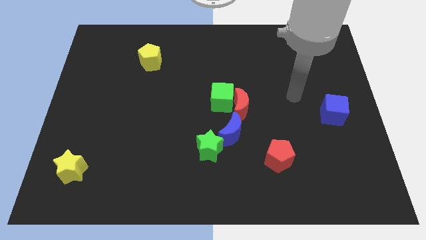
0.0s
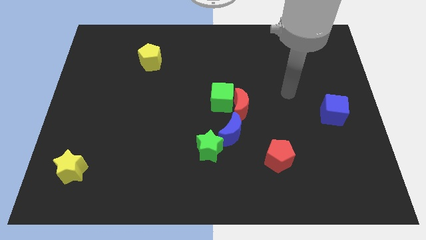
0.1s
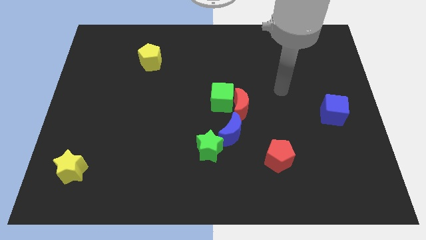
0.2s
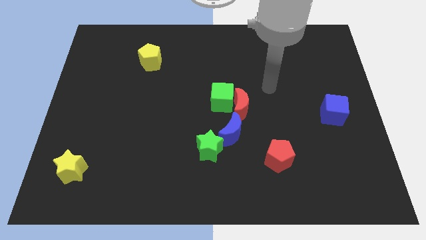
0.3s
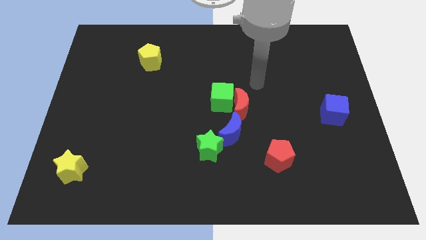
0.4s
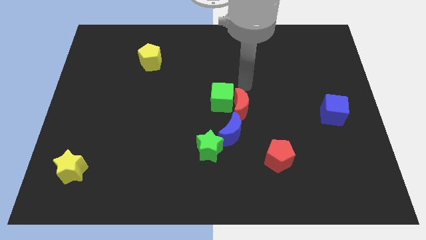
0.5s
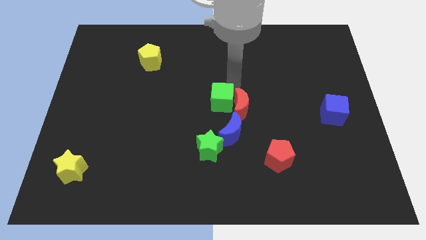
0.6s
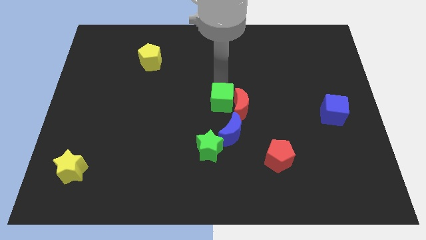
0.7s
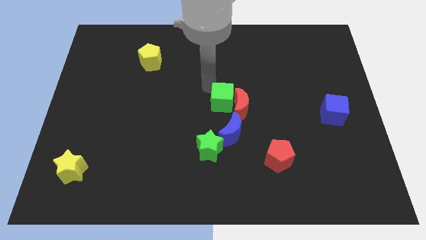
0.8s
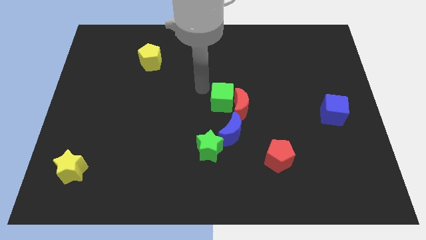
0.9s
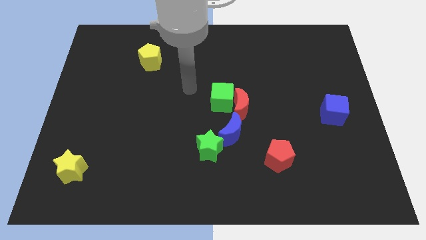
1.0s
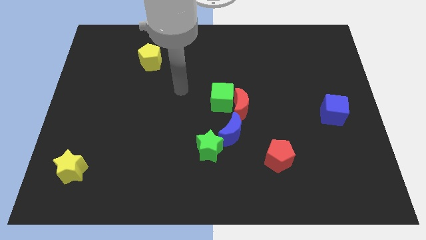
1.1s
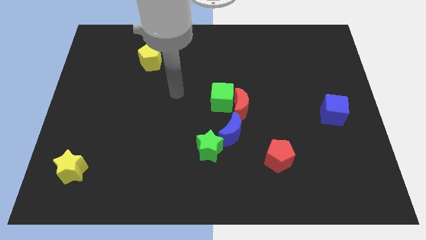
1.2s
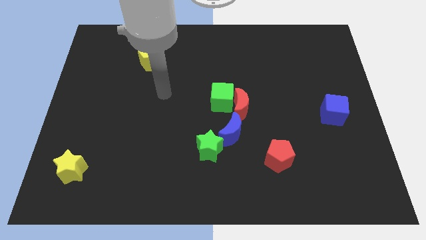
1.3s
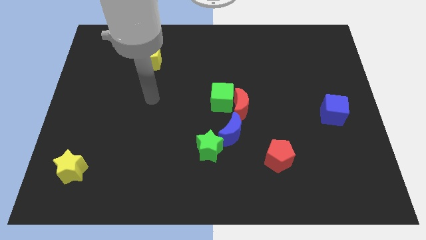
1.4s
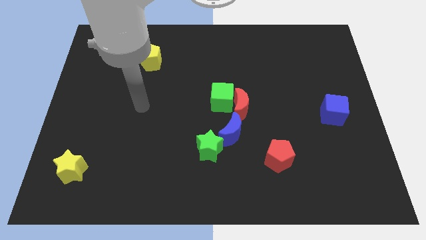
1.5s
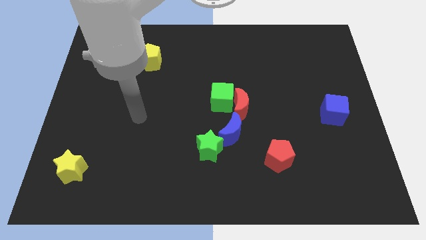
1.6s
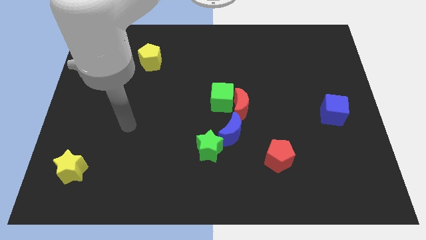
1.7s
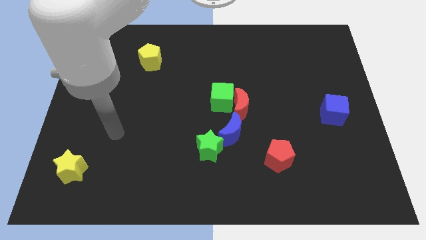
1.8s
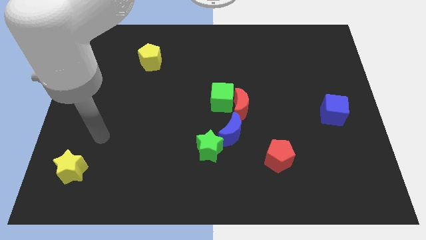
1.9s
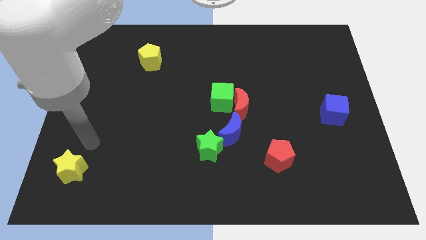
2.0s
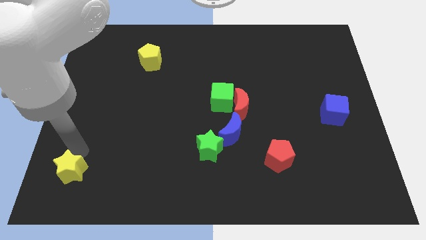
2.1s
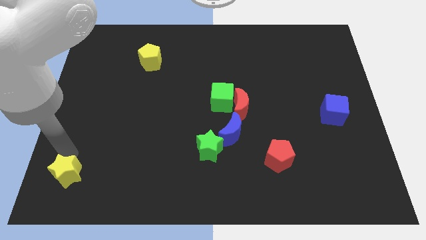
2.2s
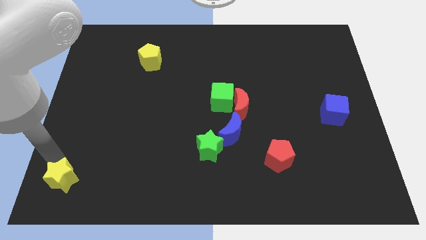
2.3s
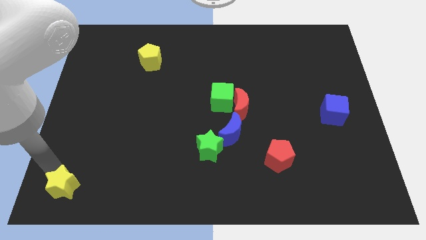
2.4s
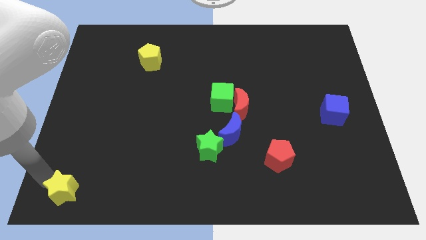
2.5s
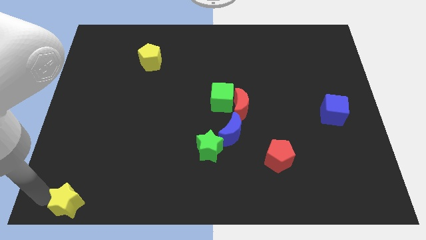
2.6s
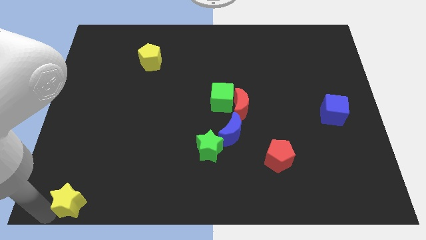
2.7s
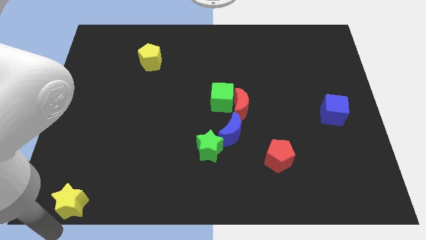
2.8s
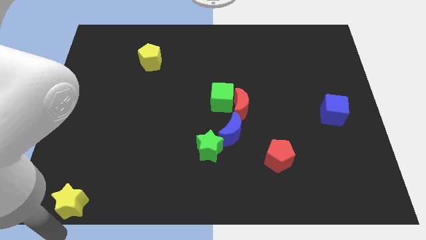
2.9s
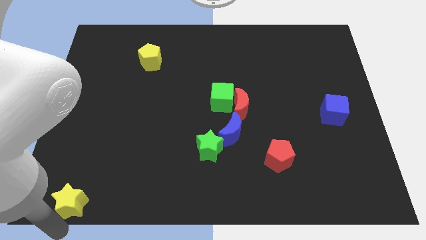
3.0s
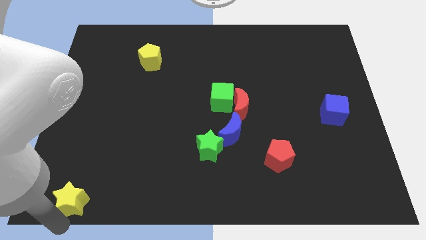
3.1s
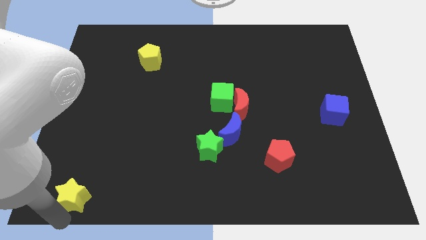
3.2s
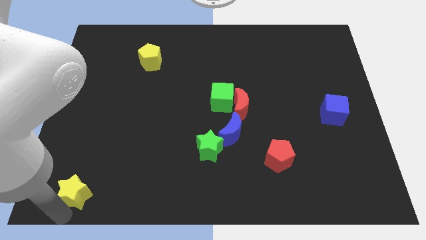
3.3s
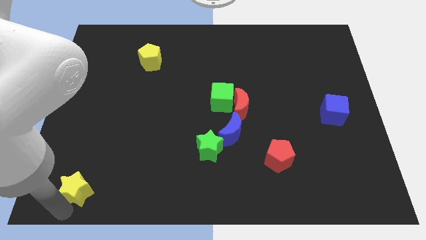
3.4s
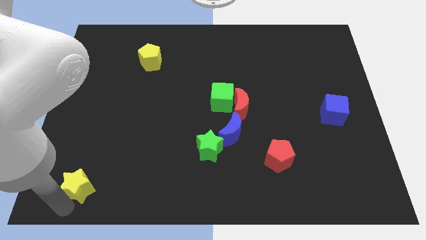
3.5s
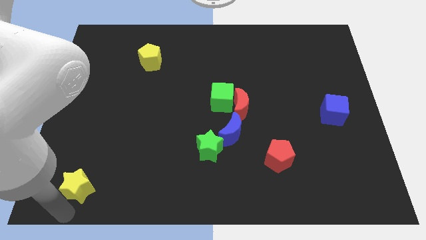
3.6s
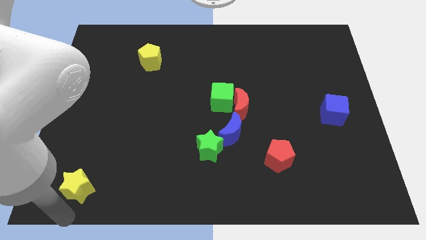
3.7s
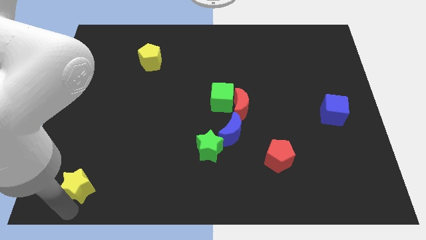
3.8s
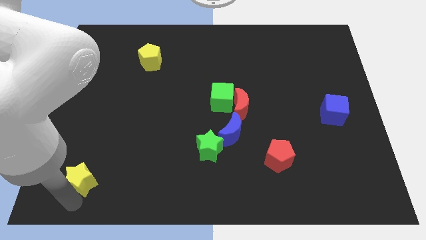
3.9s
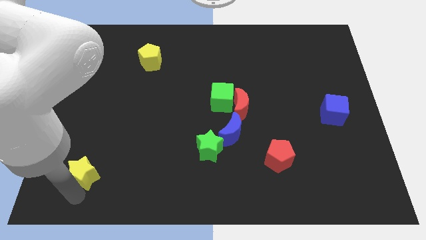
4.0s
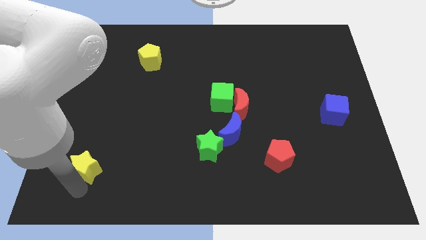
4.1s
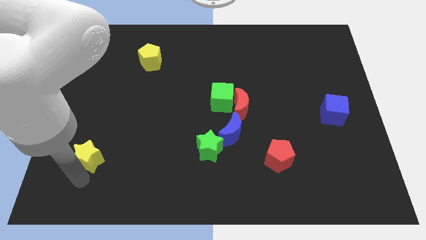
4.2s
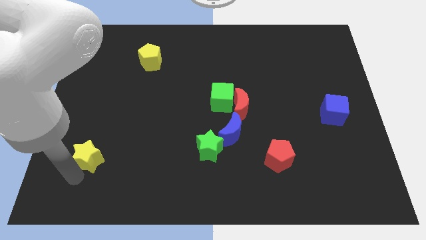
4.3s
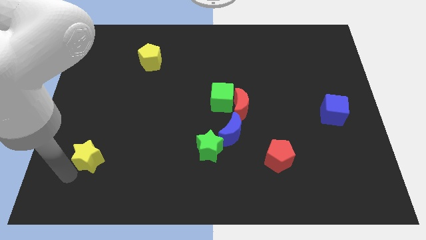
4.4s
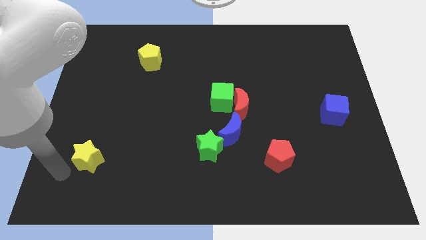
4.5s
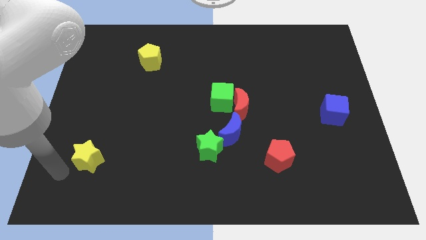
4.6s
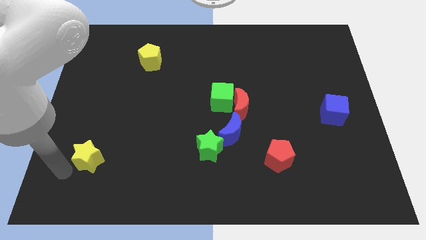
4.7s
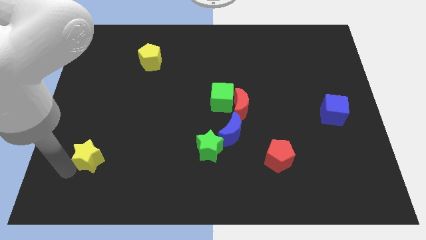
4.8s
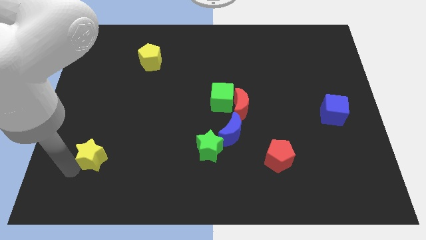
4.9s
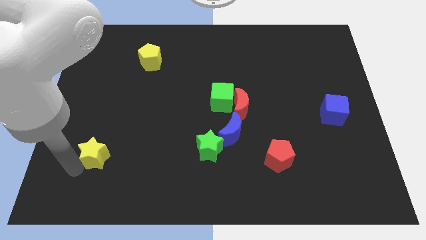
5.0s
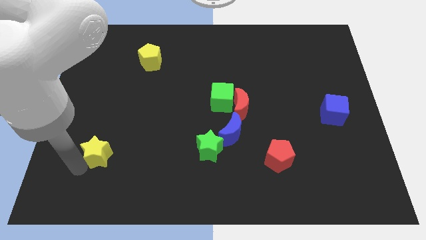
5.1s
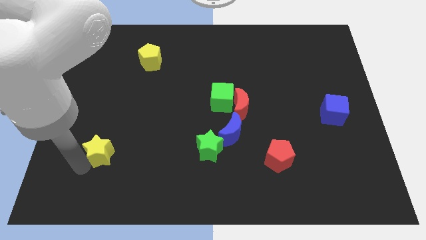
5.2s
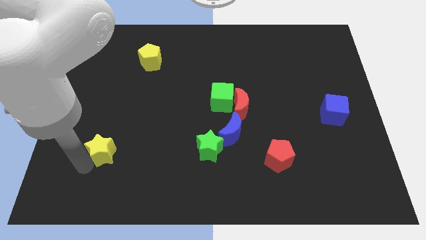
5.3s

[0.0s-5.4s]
move the yellow star up and right somewhat

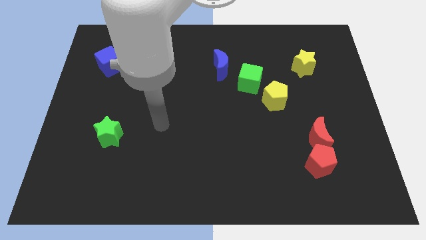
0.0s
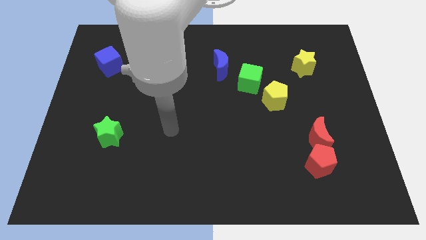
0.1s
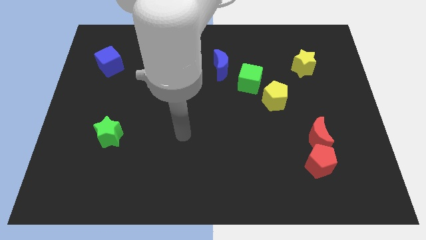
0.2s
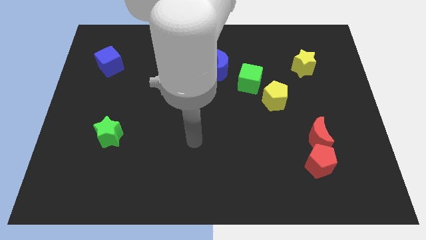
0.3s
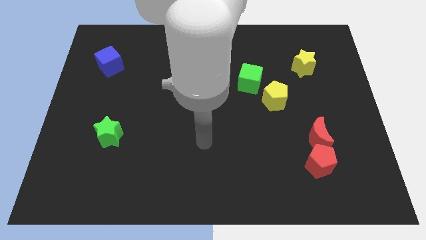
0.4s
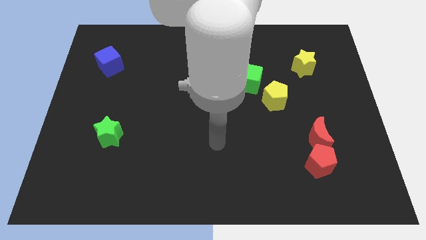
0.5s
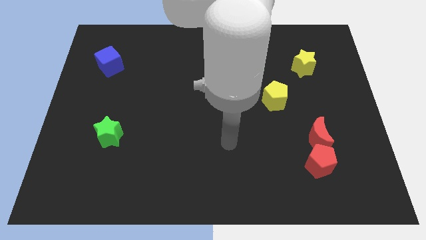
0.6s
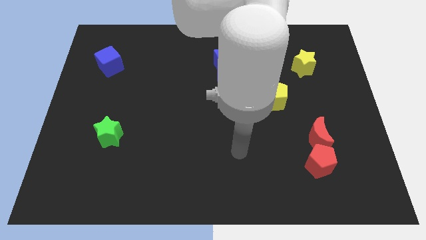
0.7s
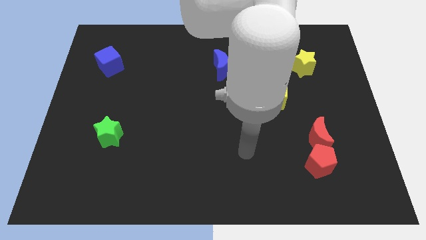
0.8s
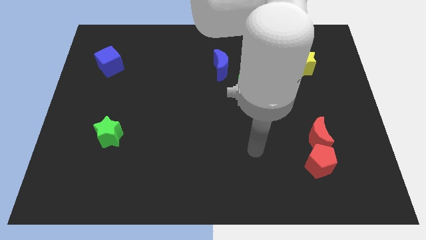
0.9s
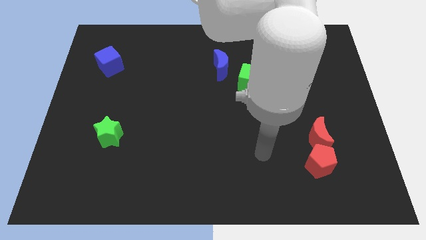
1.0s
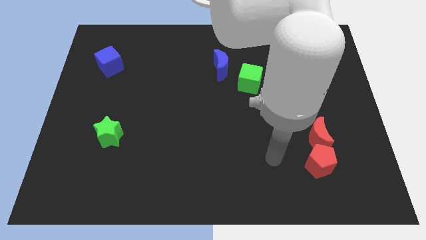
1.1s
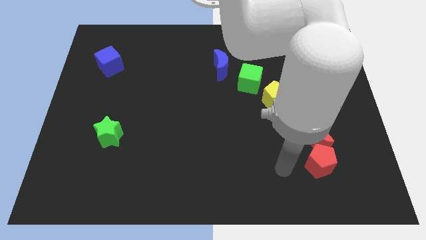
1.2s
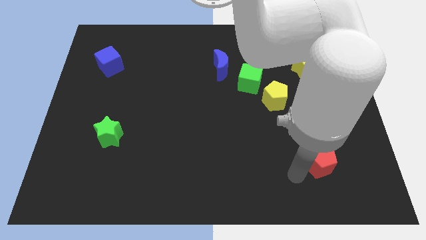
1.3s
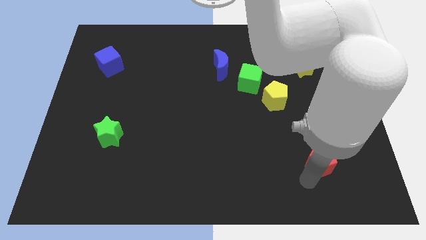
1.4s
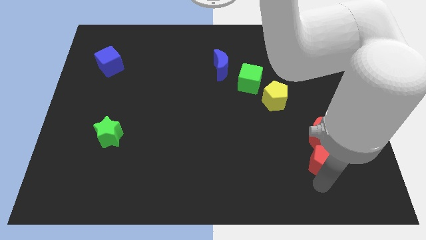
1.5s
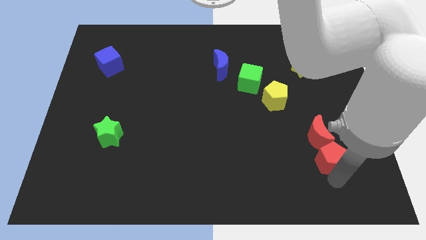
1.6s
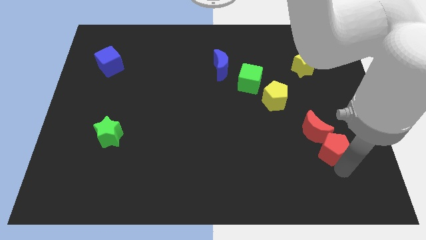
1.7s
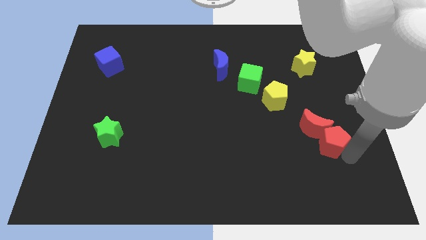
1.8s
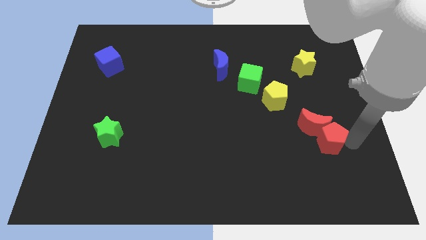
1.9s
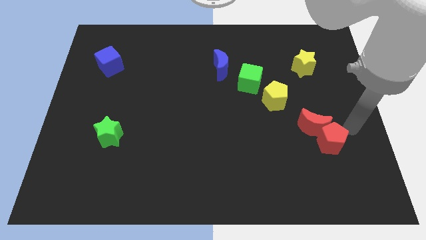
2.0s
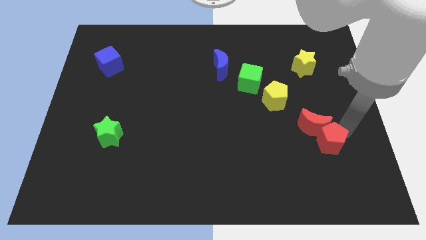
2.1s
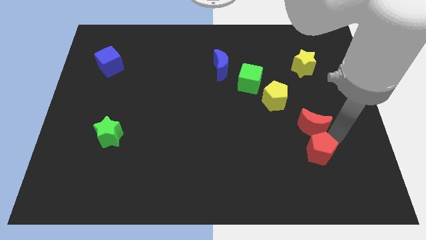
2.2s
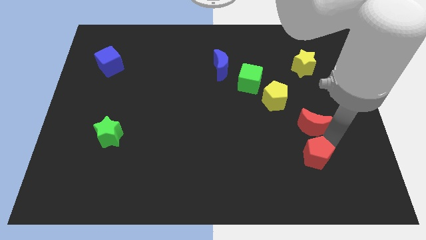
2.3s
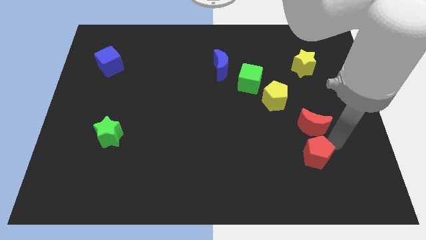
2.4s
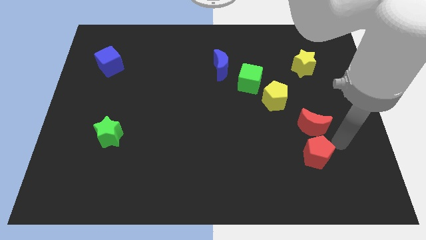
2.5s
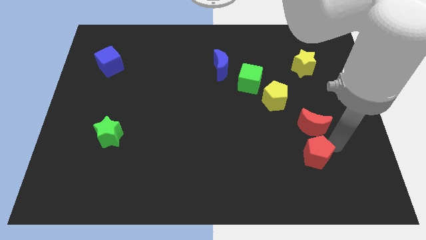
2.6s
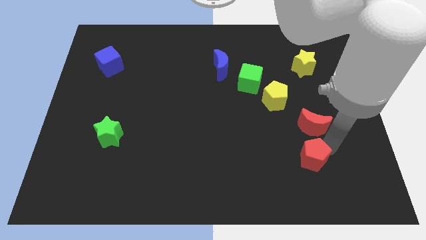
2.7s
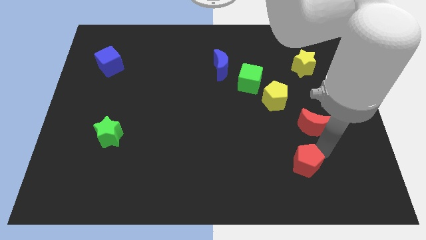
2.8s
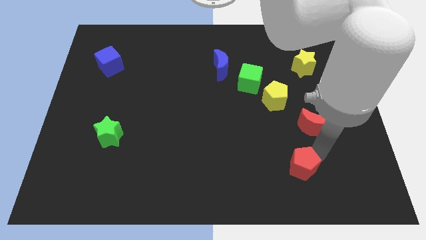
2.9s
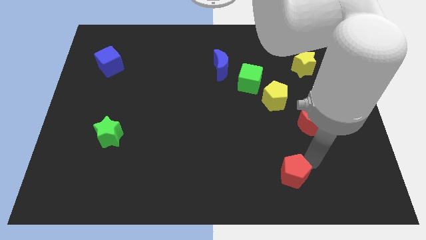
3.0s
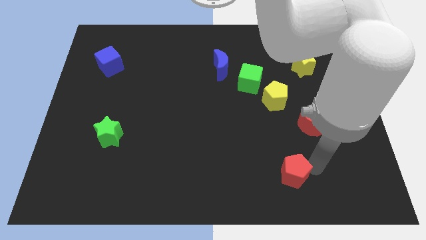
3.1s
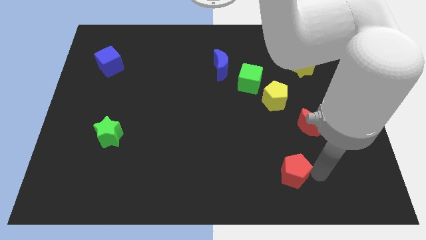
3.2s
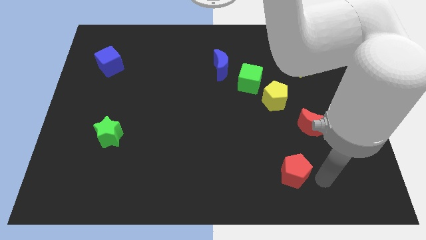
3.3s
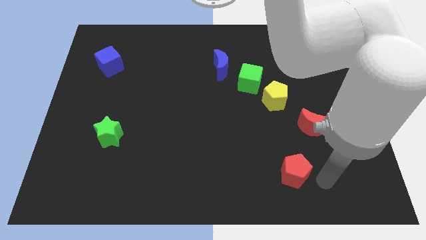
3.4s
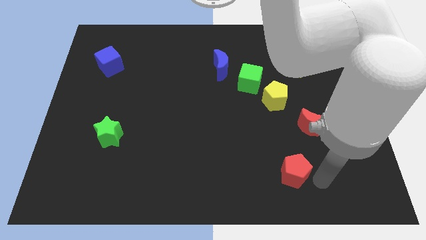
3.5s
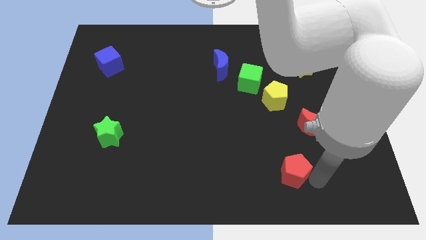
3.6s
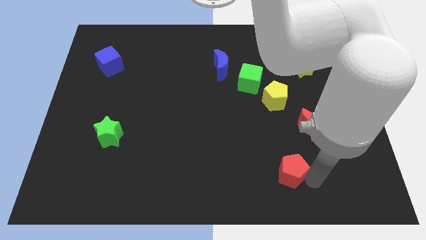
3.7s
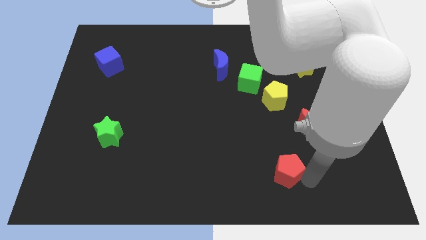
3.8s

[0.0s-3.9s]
slide the red pentagon a little bit to the left
